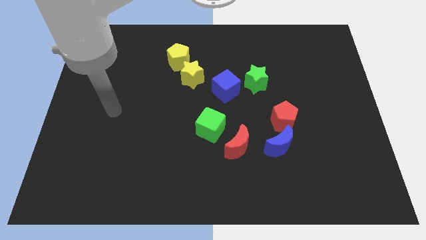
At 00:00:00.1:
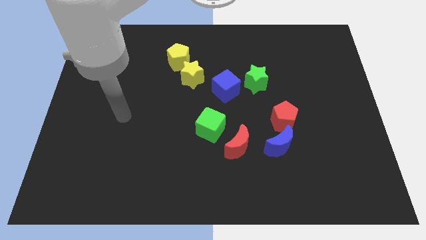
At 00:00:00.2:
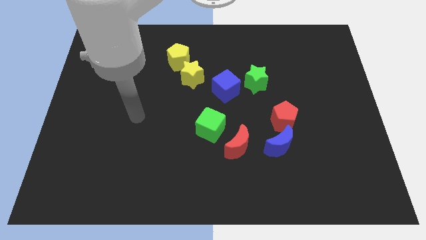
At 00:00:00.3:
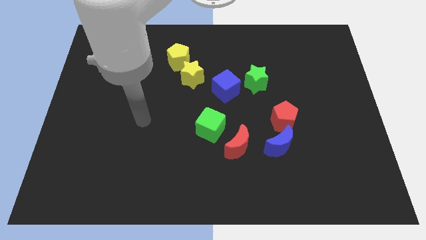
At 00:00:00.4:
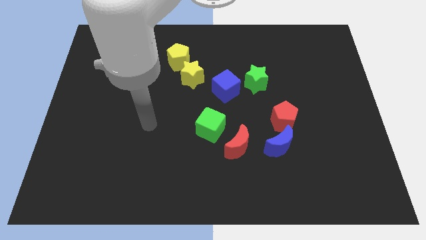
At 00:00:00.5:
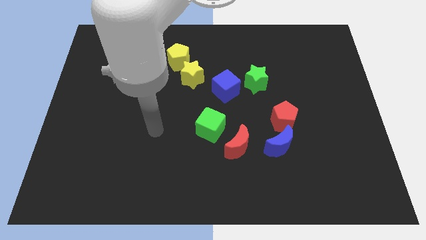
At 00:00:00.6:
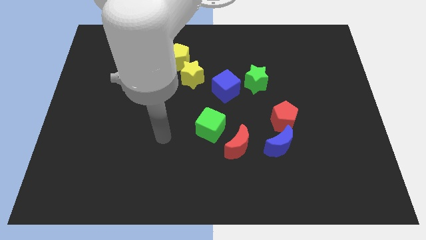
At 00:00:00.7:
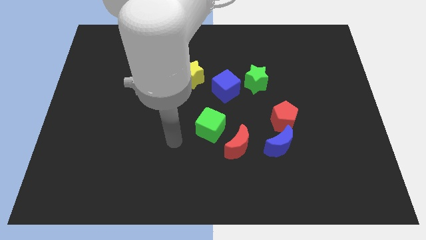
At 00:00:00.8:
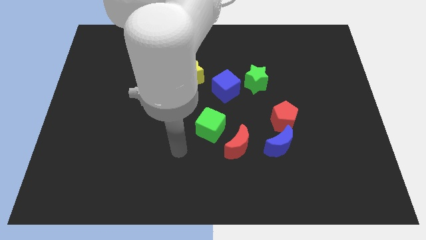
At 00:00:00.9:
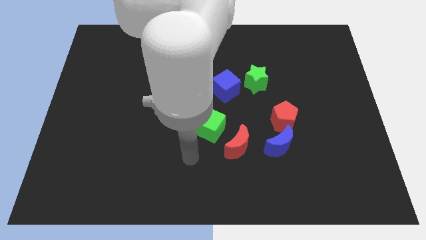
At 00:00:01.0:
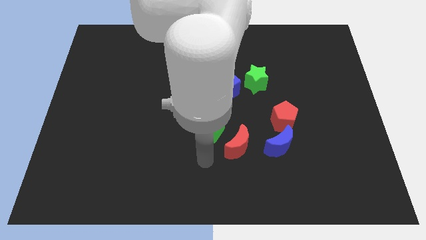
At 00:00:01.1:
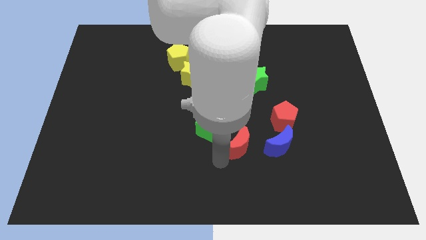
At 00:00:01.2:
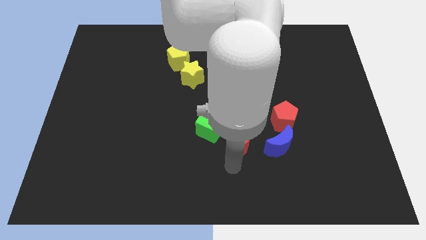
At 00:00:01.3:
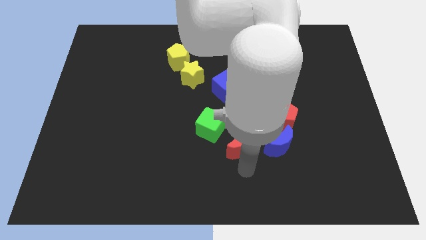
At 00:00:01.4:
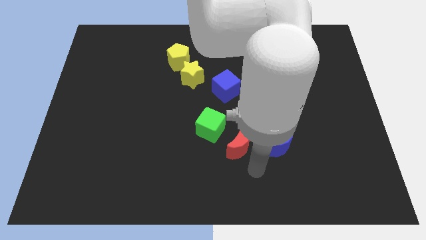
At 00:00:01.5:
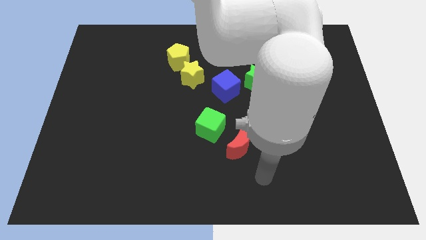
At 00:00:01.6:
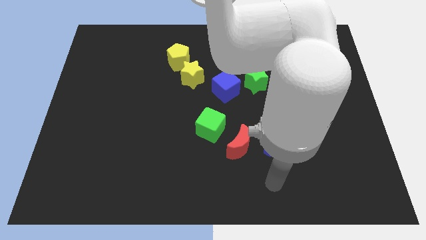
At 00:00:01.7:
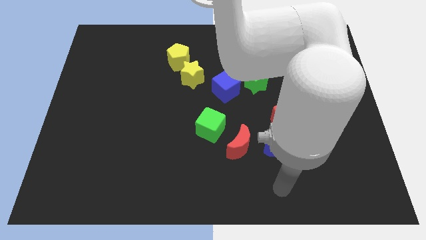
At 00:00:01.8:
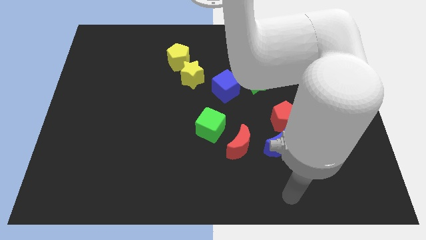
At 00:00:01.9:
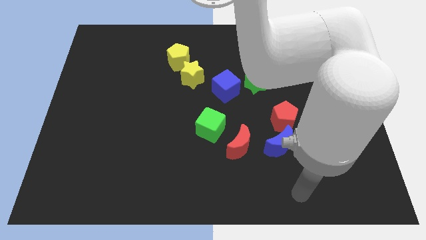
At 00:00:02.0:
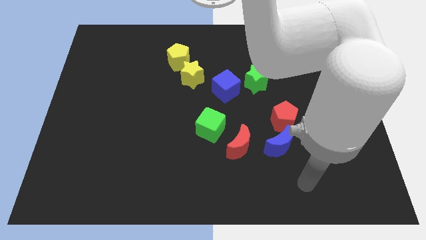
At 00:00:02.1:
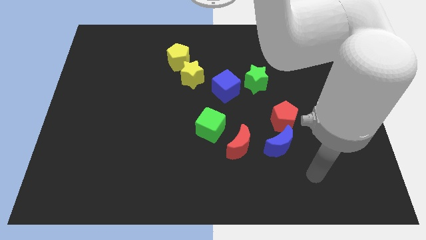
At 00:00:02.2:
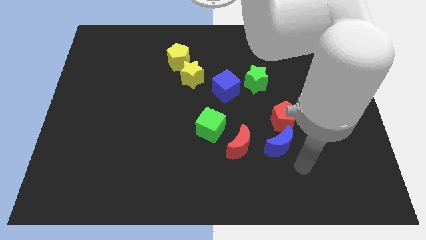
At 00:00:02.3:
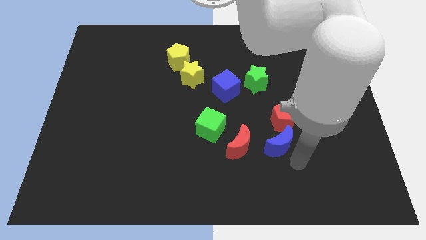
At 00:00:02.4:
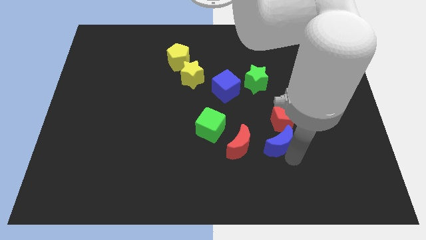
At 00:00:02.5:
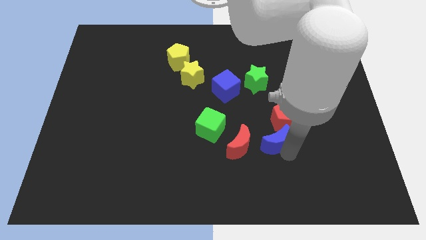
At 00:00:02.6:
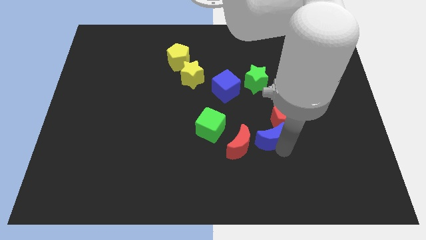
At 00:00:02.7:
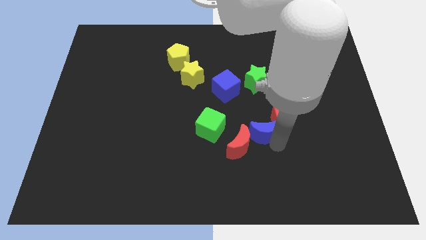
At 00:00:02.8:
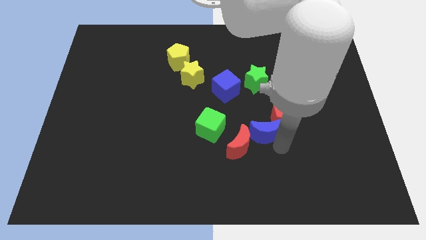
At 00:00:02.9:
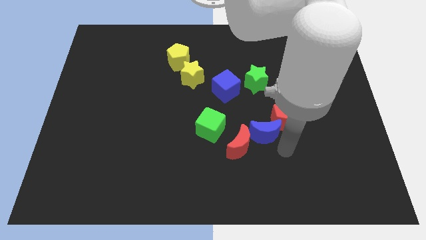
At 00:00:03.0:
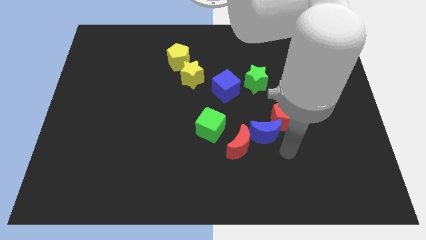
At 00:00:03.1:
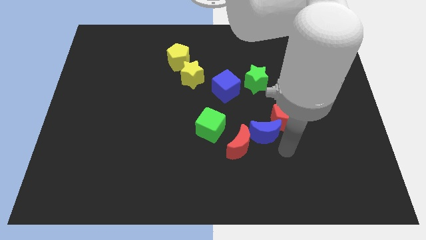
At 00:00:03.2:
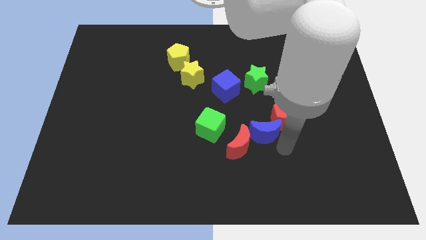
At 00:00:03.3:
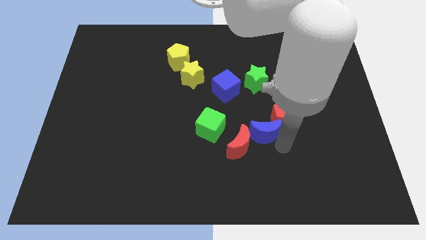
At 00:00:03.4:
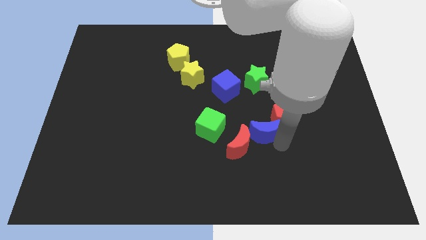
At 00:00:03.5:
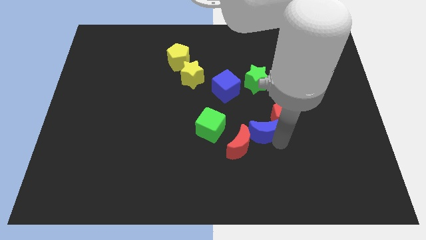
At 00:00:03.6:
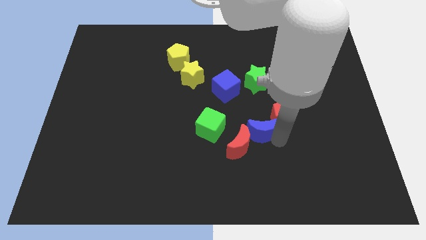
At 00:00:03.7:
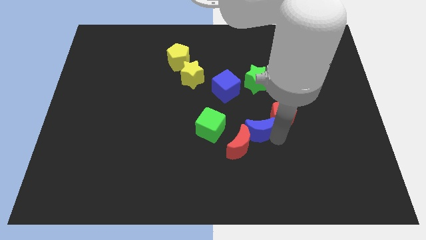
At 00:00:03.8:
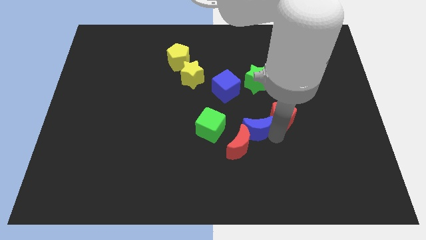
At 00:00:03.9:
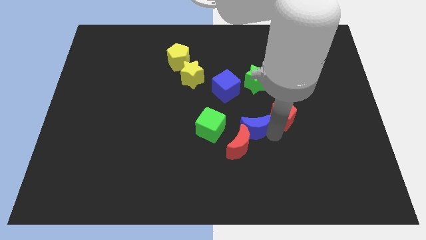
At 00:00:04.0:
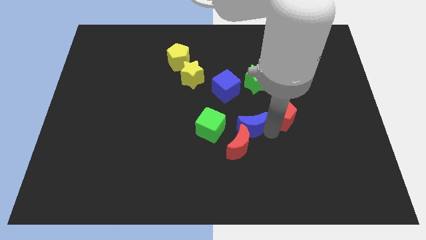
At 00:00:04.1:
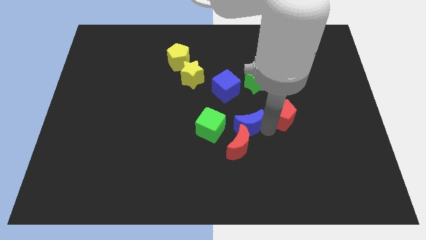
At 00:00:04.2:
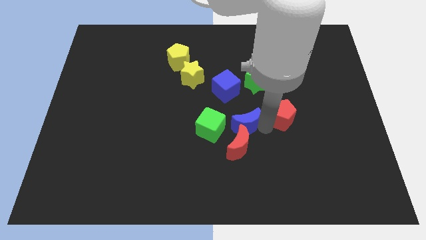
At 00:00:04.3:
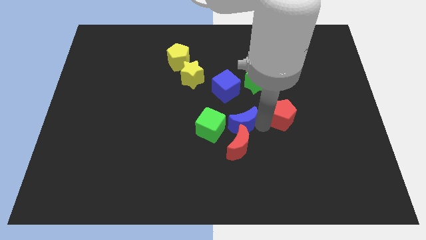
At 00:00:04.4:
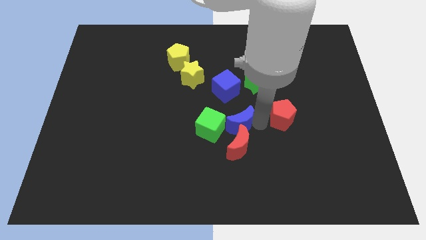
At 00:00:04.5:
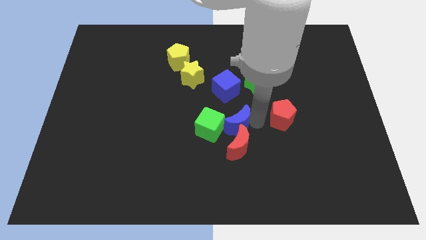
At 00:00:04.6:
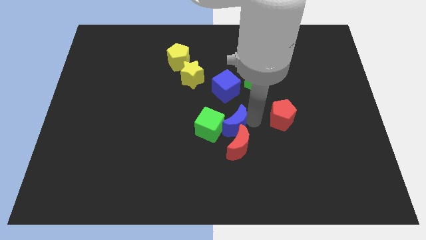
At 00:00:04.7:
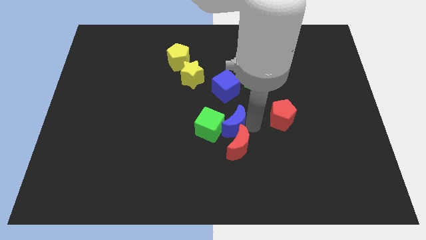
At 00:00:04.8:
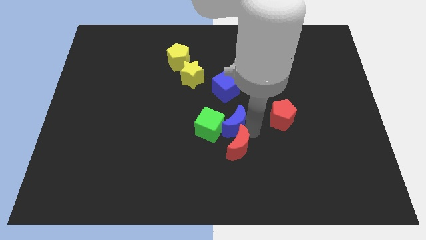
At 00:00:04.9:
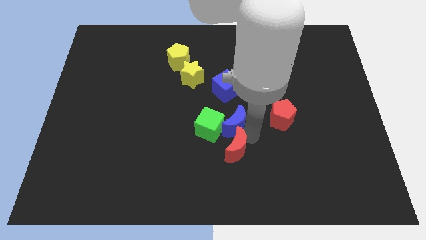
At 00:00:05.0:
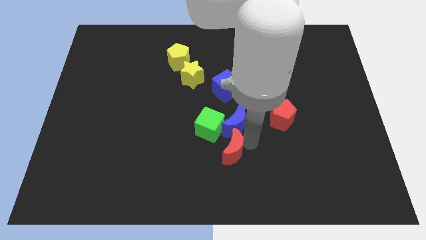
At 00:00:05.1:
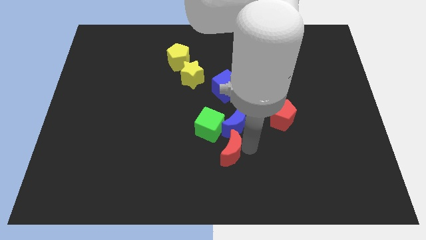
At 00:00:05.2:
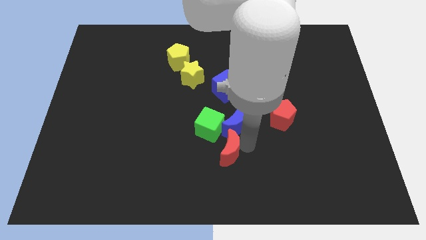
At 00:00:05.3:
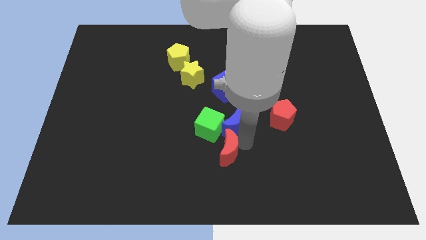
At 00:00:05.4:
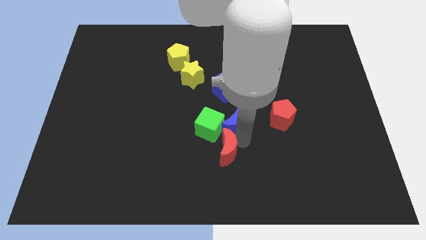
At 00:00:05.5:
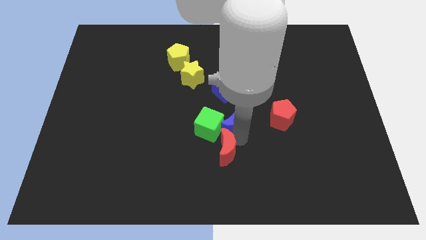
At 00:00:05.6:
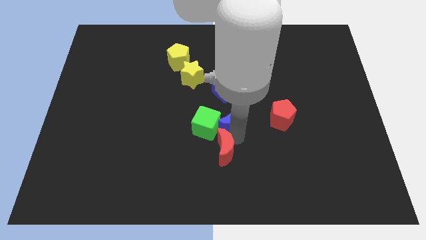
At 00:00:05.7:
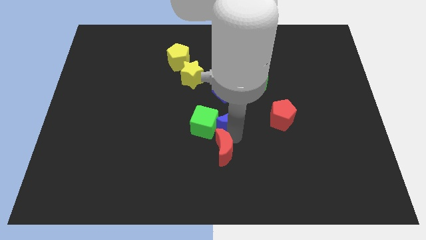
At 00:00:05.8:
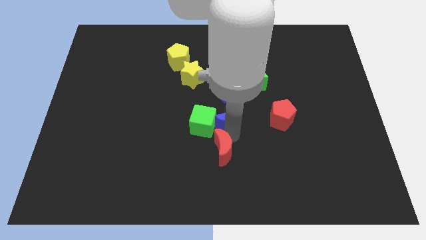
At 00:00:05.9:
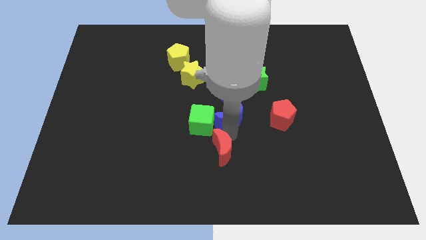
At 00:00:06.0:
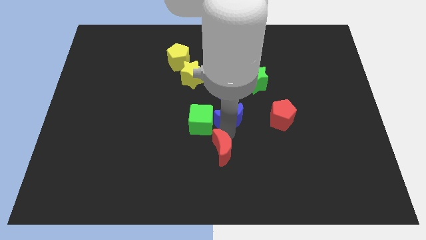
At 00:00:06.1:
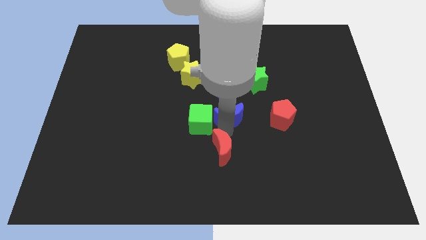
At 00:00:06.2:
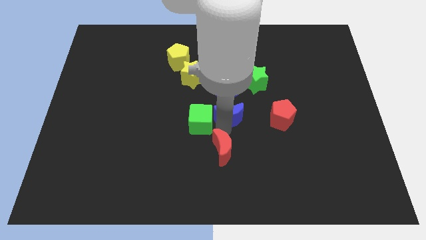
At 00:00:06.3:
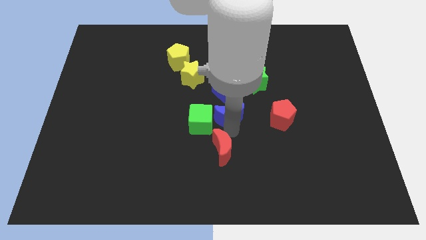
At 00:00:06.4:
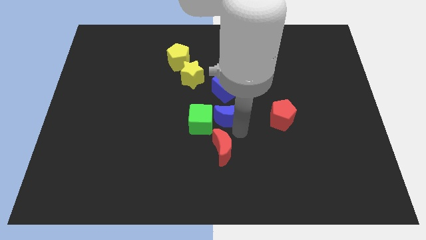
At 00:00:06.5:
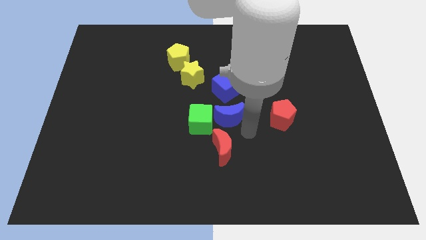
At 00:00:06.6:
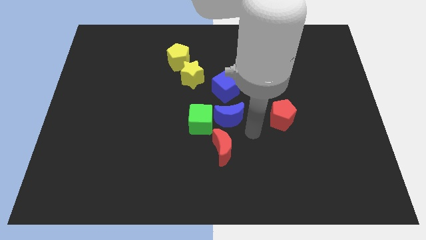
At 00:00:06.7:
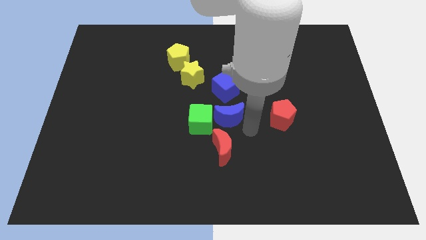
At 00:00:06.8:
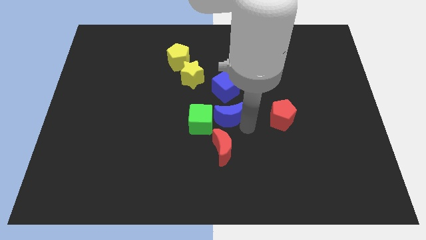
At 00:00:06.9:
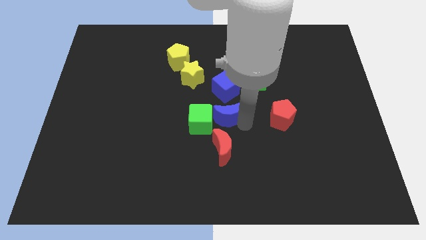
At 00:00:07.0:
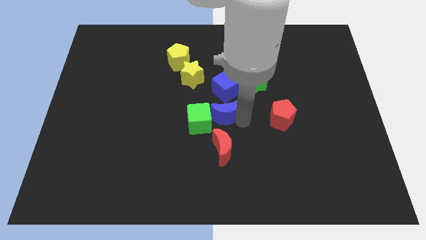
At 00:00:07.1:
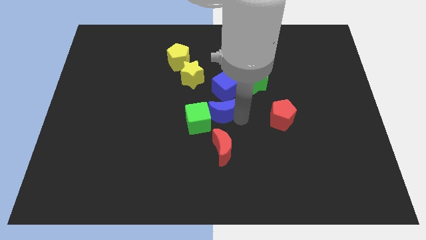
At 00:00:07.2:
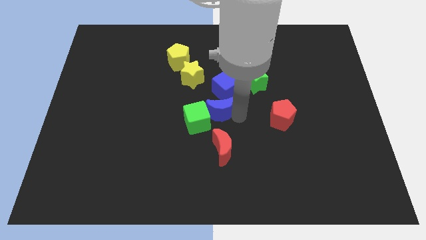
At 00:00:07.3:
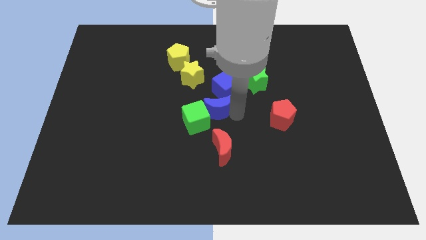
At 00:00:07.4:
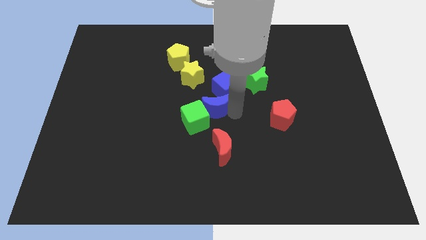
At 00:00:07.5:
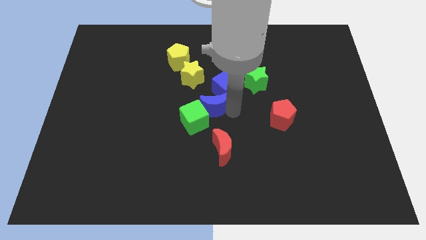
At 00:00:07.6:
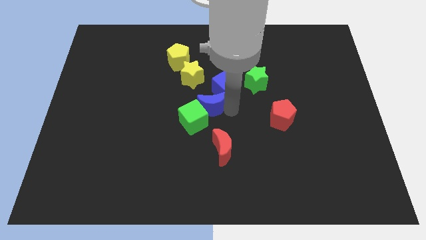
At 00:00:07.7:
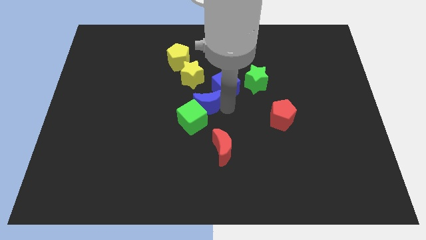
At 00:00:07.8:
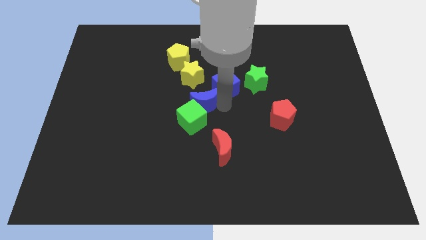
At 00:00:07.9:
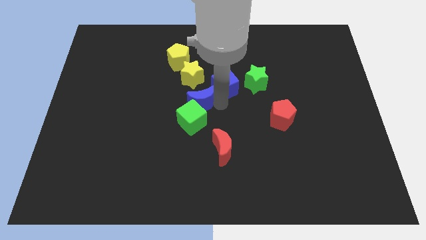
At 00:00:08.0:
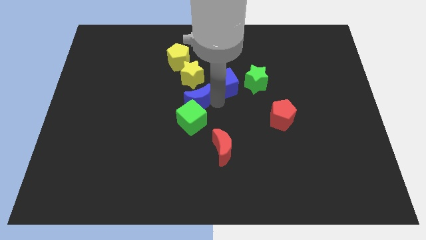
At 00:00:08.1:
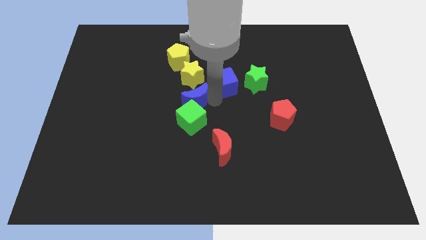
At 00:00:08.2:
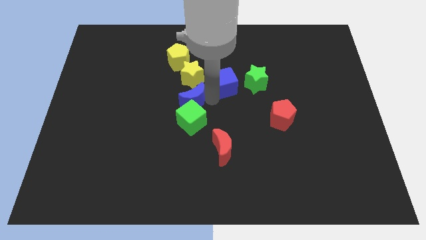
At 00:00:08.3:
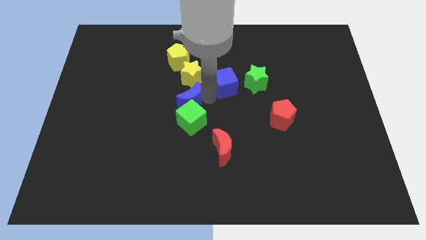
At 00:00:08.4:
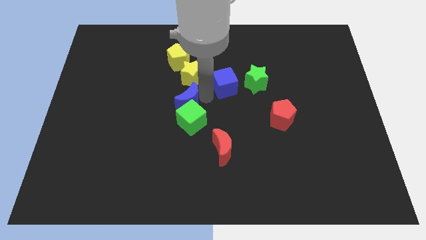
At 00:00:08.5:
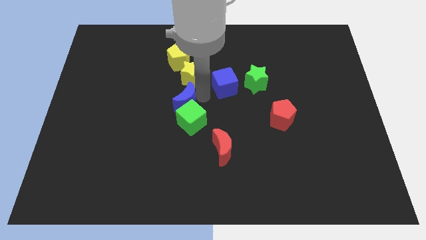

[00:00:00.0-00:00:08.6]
put the blue moon to the bottom left side of the yellow star
